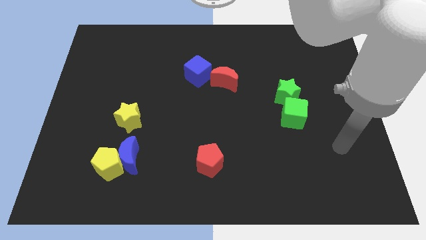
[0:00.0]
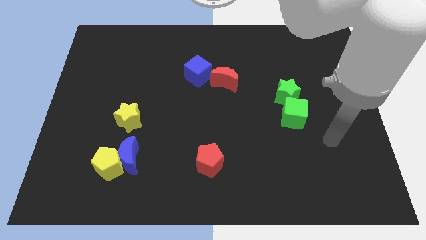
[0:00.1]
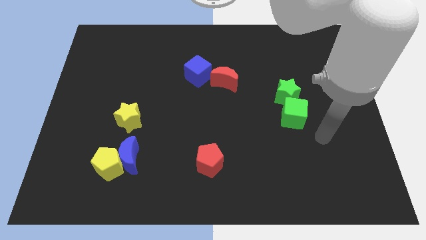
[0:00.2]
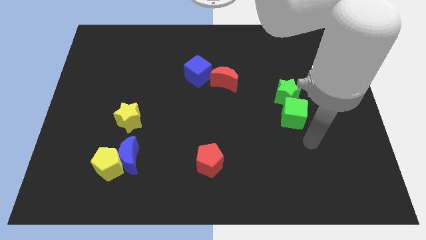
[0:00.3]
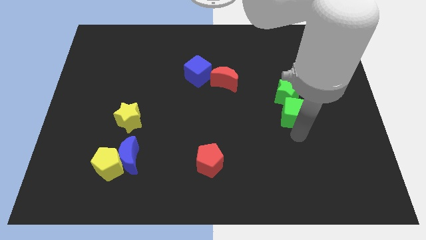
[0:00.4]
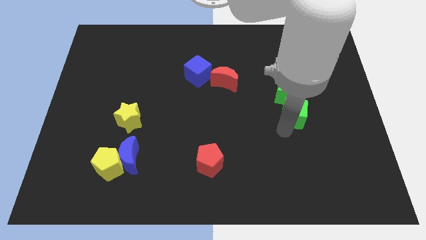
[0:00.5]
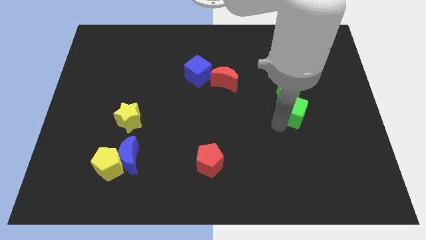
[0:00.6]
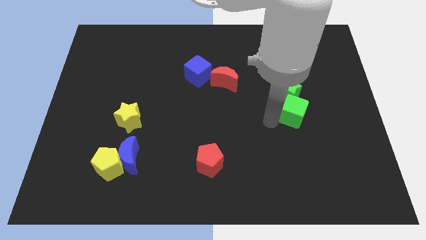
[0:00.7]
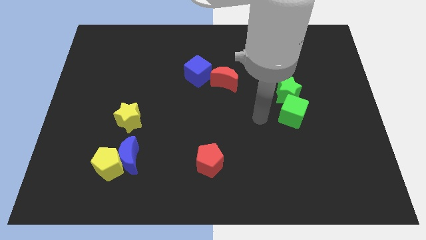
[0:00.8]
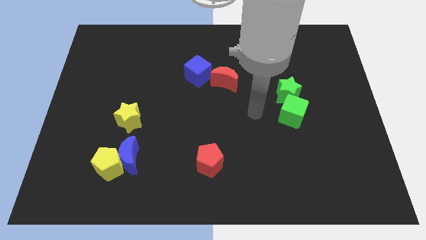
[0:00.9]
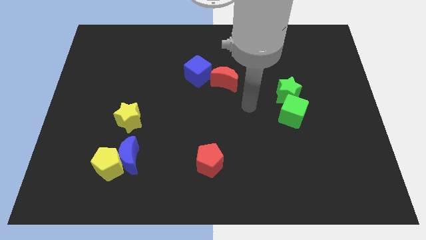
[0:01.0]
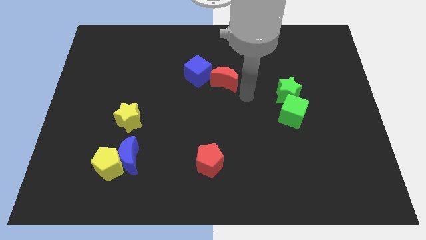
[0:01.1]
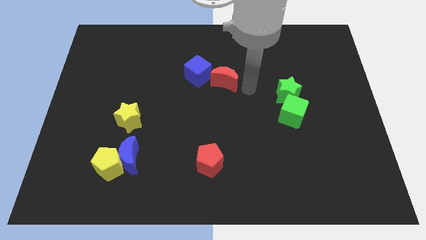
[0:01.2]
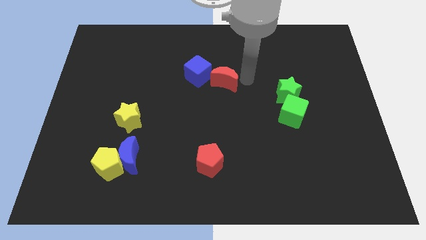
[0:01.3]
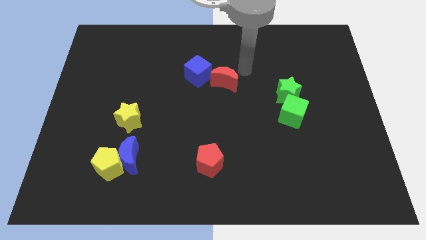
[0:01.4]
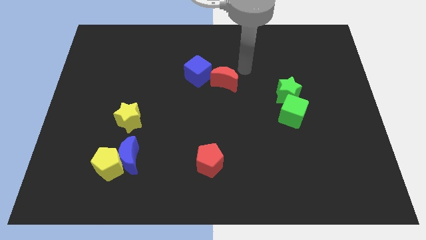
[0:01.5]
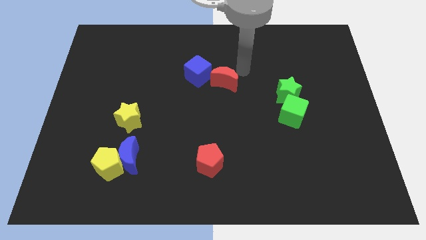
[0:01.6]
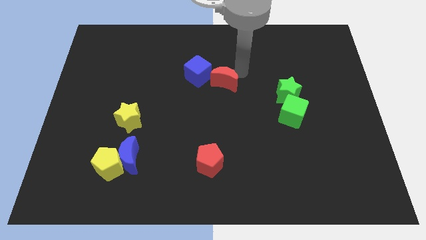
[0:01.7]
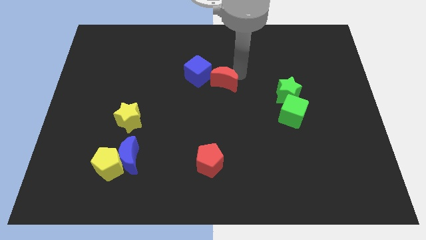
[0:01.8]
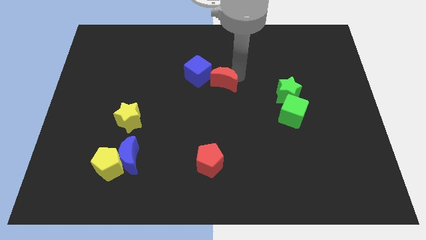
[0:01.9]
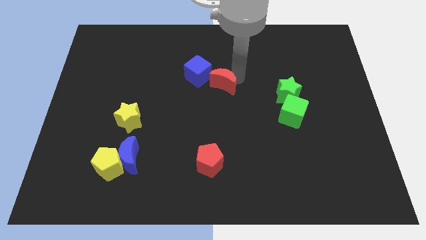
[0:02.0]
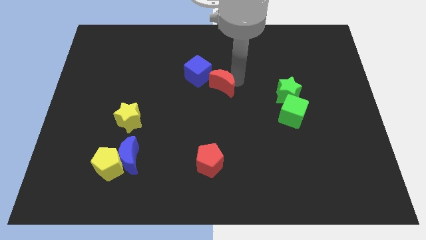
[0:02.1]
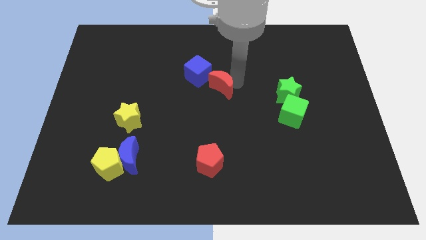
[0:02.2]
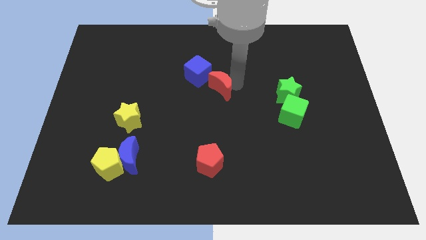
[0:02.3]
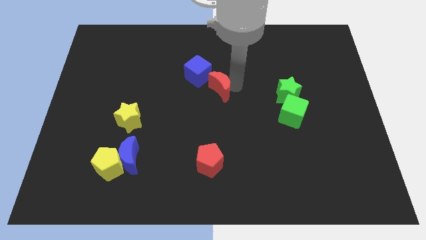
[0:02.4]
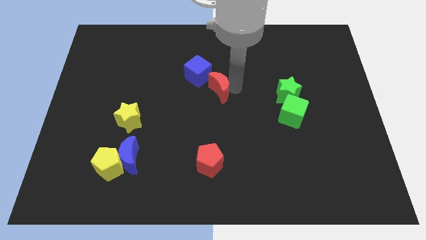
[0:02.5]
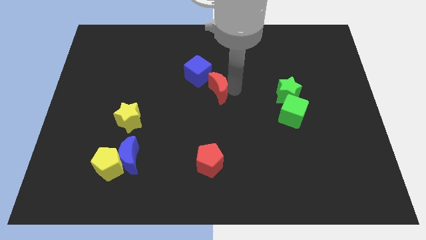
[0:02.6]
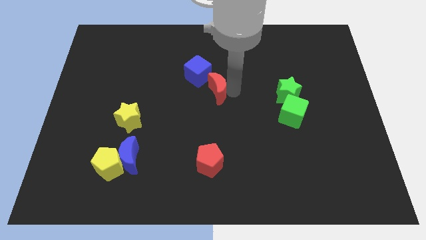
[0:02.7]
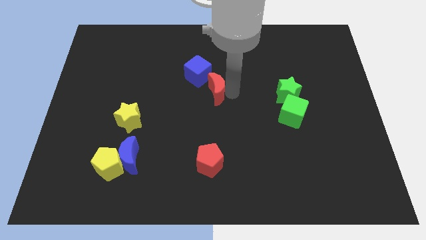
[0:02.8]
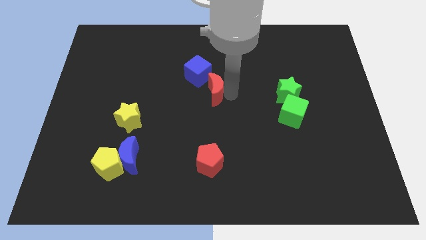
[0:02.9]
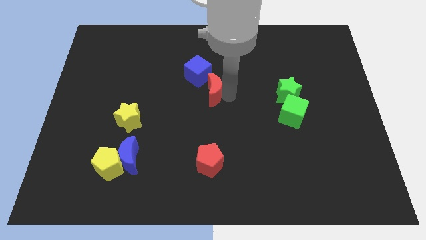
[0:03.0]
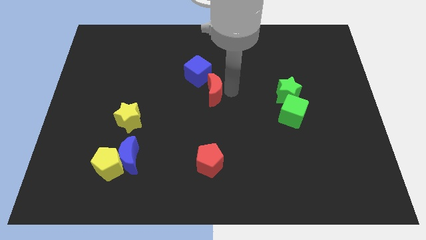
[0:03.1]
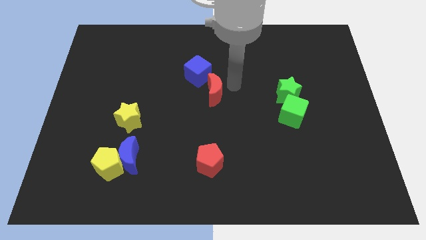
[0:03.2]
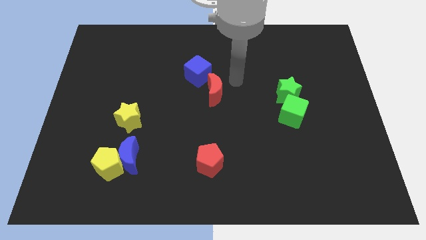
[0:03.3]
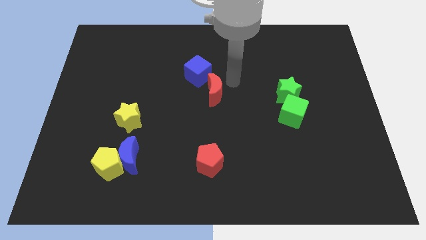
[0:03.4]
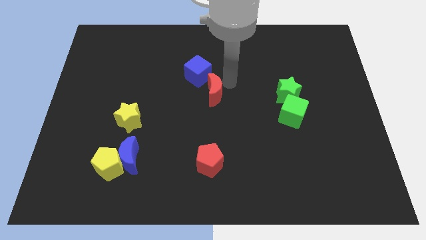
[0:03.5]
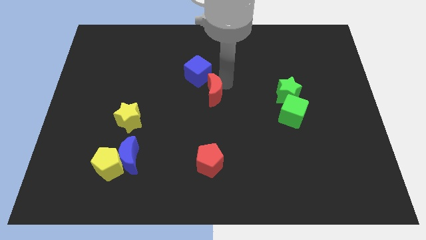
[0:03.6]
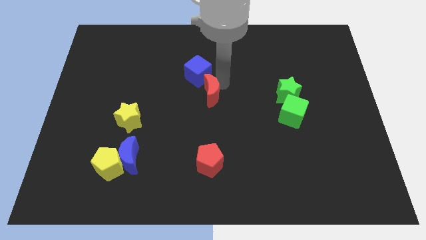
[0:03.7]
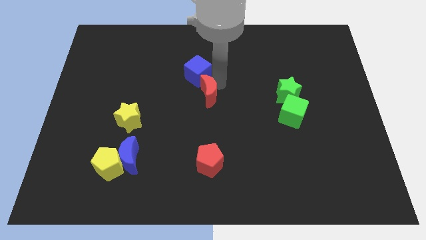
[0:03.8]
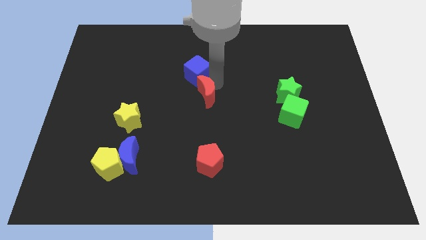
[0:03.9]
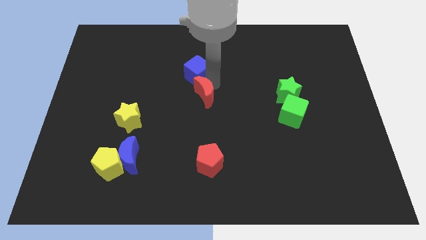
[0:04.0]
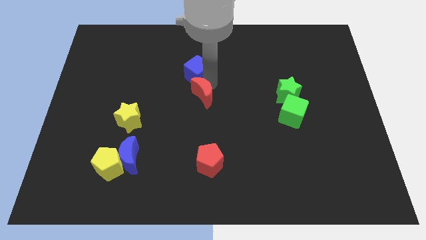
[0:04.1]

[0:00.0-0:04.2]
slightly push the red moon down and to the left

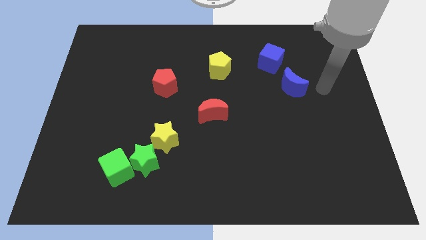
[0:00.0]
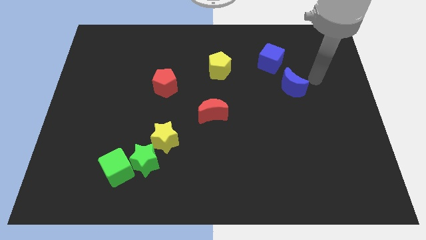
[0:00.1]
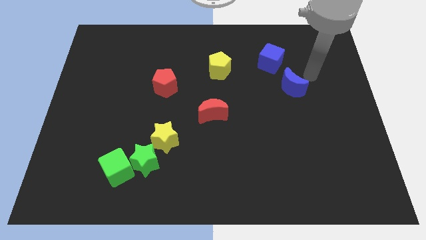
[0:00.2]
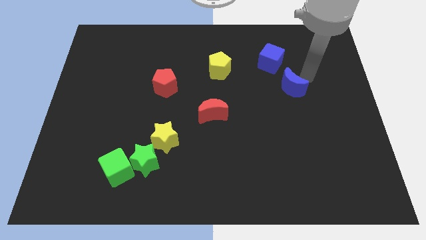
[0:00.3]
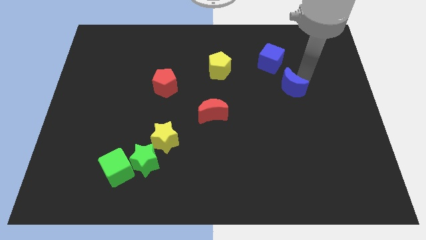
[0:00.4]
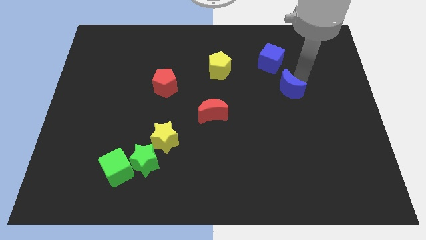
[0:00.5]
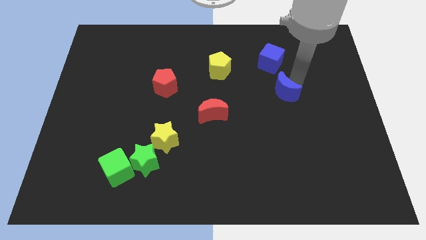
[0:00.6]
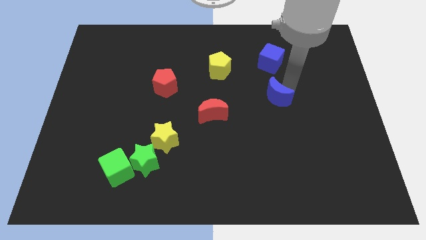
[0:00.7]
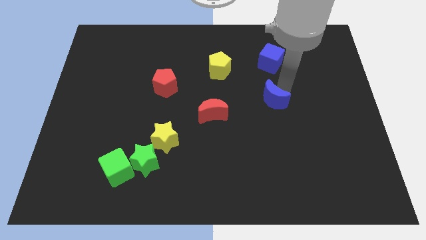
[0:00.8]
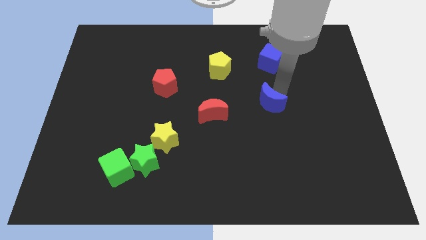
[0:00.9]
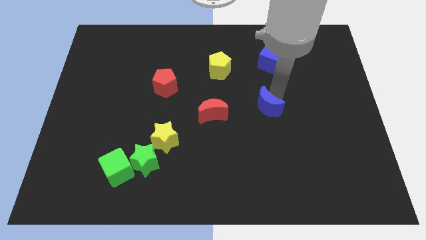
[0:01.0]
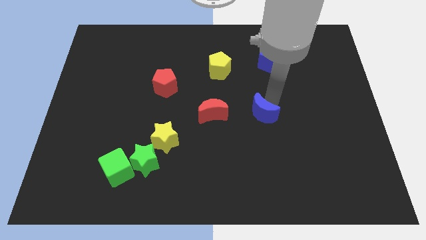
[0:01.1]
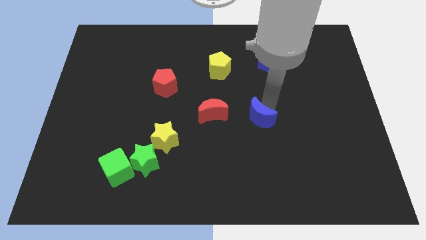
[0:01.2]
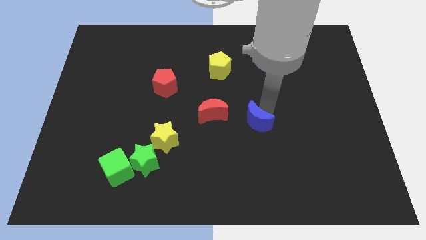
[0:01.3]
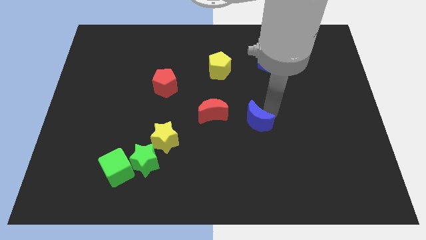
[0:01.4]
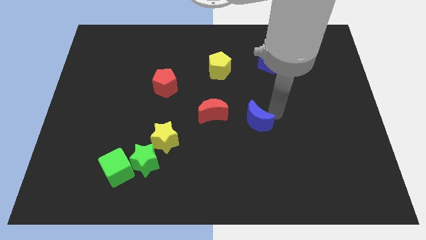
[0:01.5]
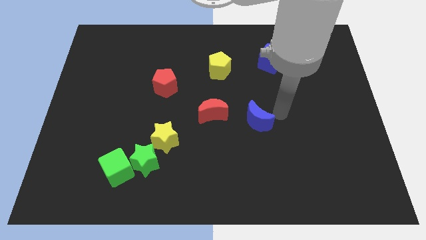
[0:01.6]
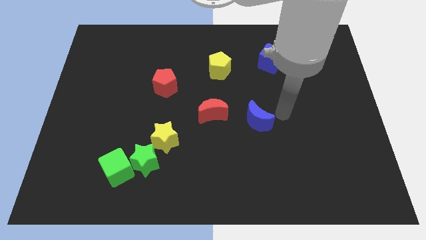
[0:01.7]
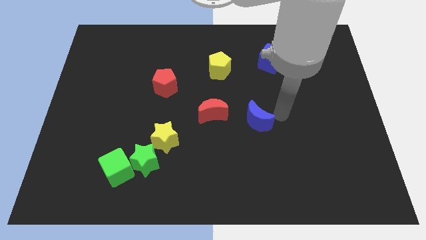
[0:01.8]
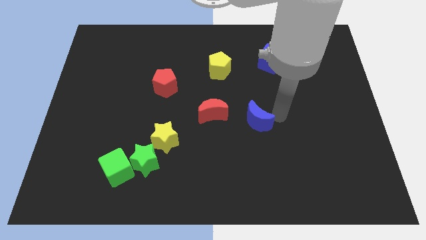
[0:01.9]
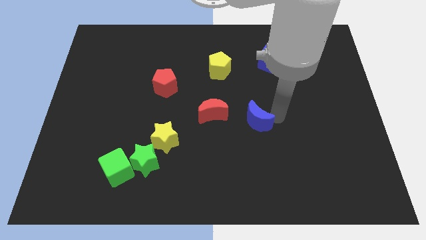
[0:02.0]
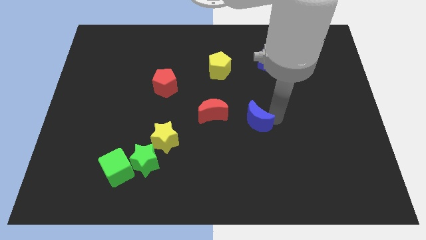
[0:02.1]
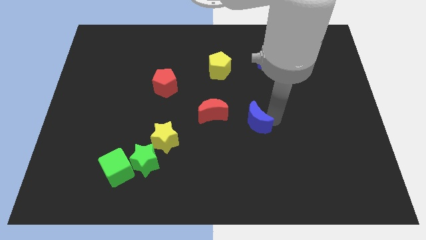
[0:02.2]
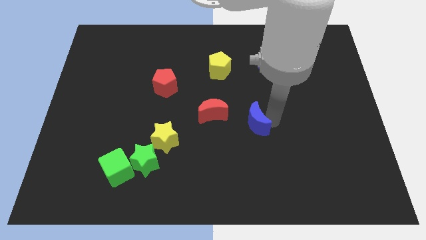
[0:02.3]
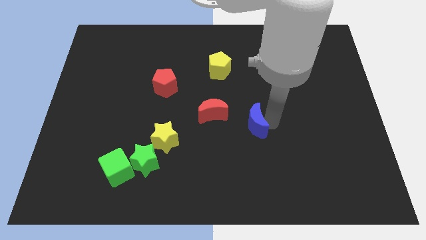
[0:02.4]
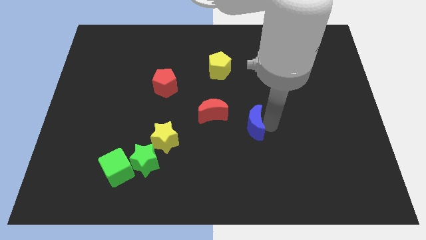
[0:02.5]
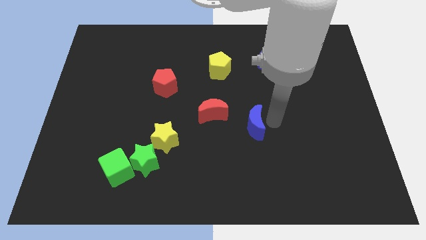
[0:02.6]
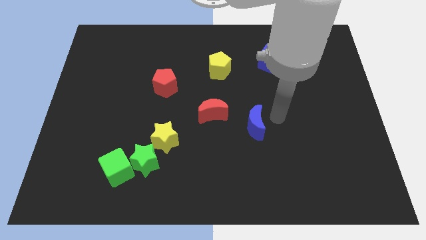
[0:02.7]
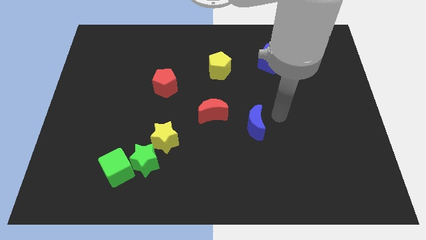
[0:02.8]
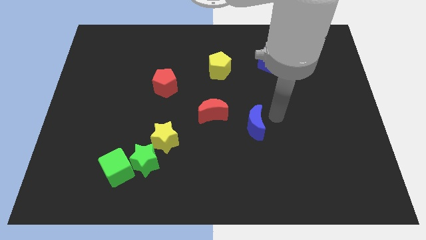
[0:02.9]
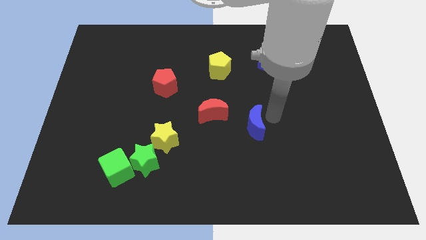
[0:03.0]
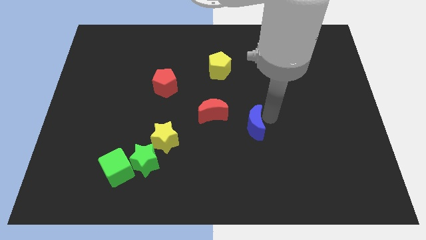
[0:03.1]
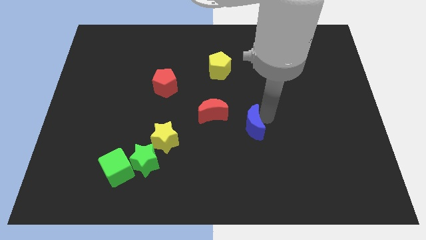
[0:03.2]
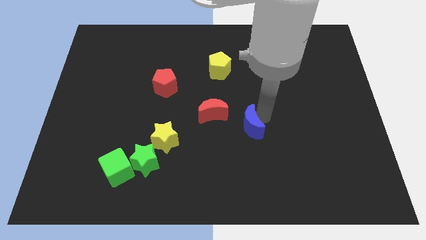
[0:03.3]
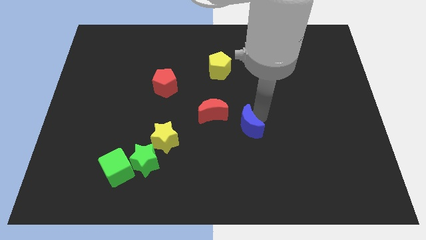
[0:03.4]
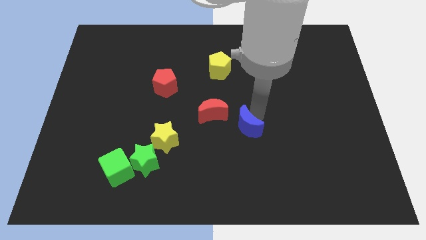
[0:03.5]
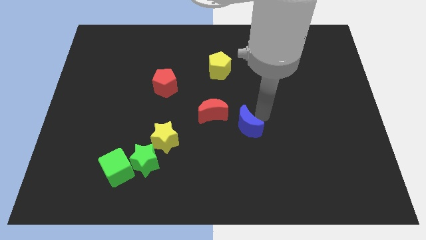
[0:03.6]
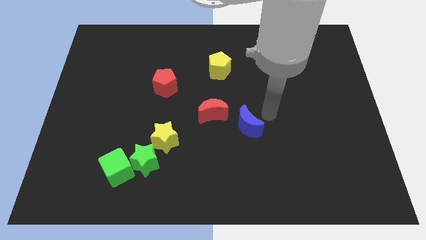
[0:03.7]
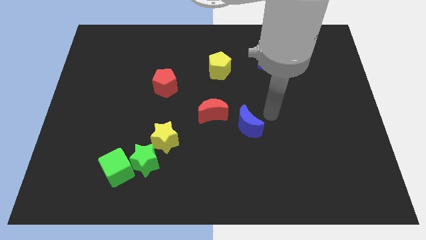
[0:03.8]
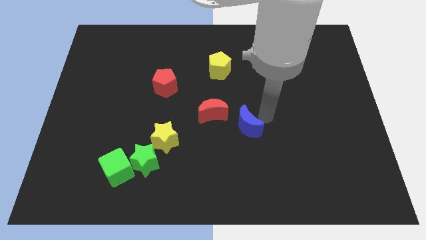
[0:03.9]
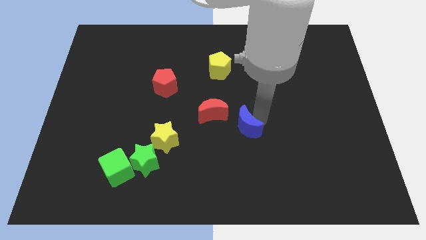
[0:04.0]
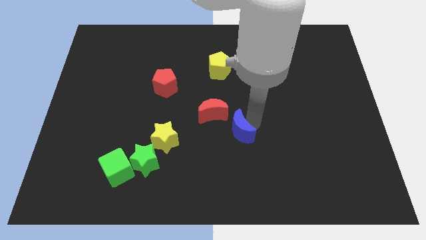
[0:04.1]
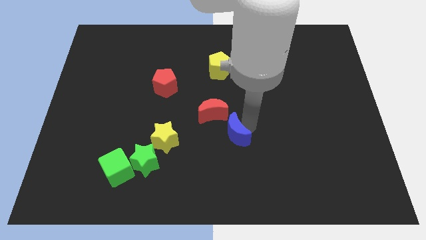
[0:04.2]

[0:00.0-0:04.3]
push the blue moon downwards and left diagonally
